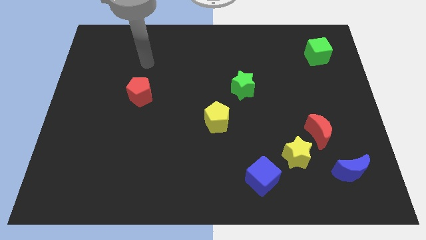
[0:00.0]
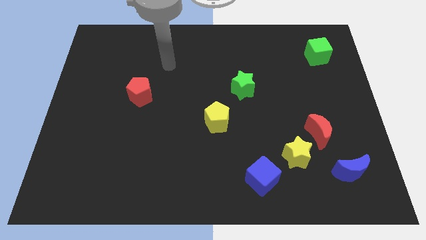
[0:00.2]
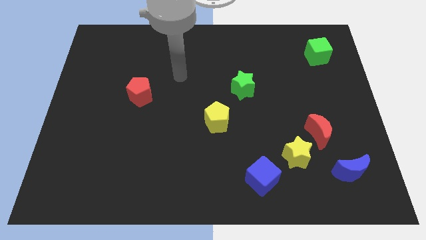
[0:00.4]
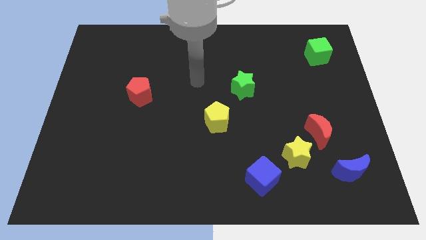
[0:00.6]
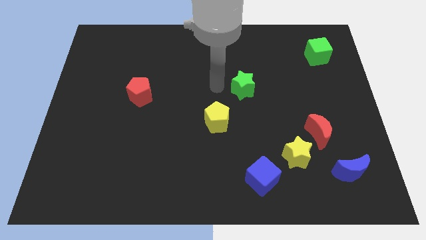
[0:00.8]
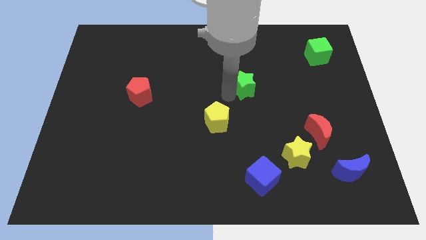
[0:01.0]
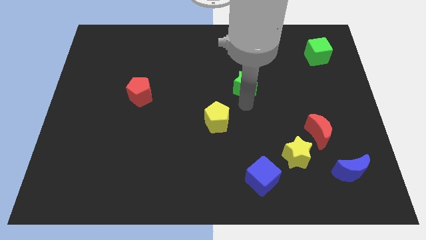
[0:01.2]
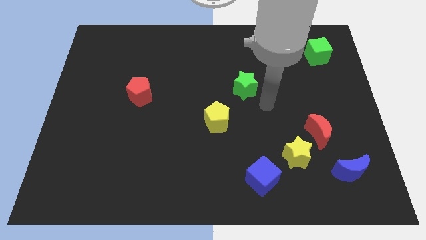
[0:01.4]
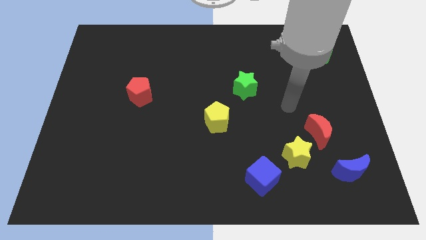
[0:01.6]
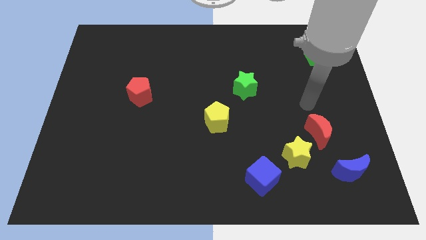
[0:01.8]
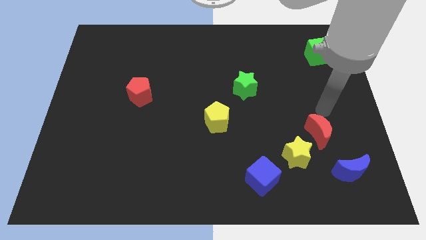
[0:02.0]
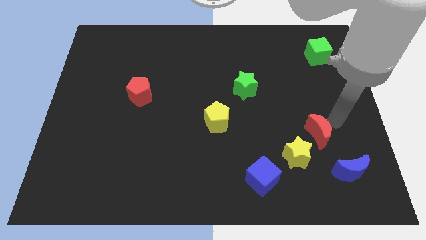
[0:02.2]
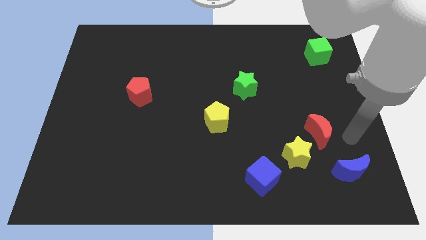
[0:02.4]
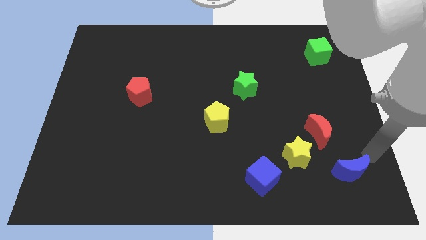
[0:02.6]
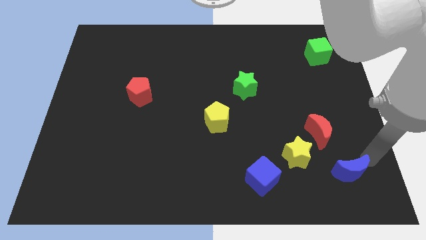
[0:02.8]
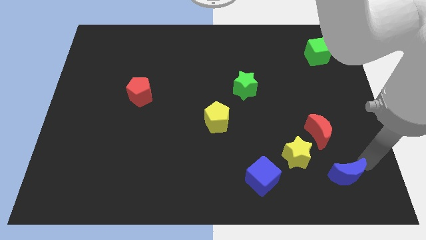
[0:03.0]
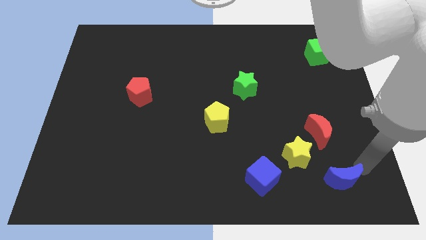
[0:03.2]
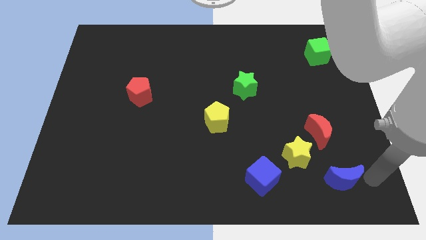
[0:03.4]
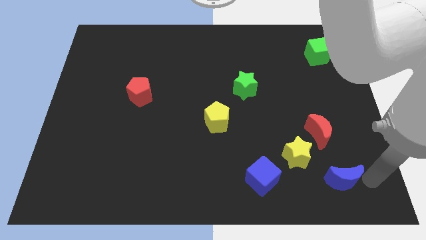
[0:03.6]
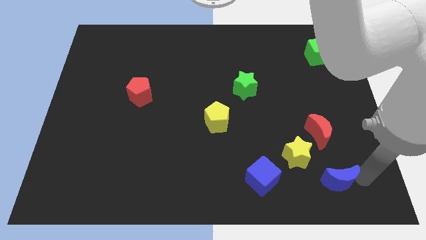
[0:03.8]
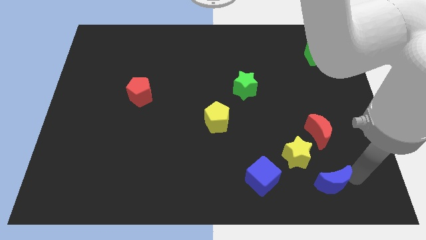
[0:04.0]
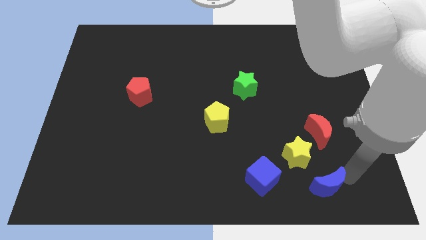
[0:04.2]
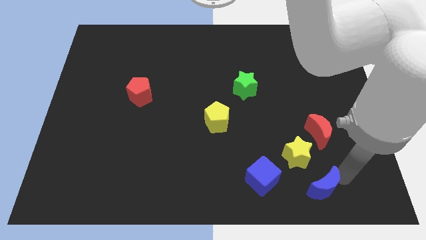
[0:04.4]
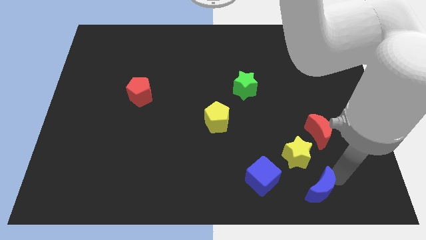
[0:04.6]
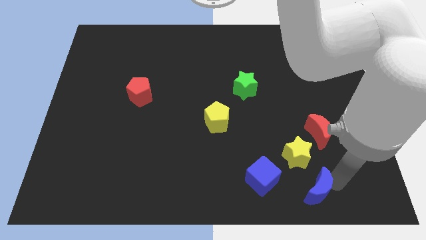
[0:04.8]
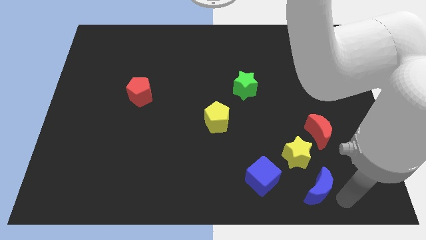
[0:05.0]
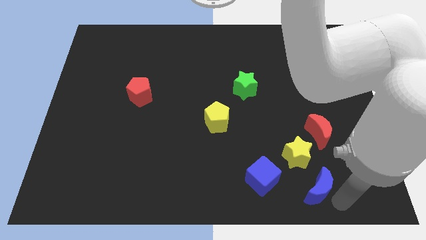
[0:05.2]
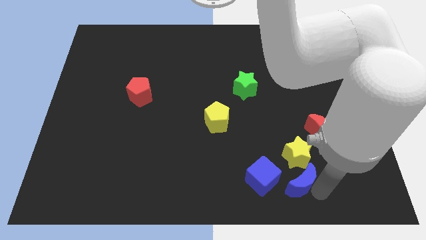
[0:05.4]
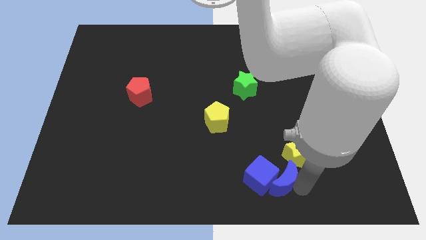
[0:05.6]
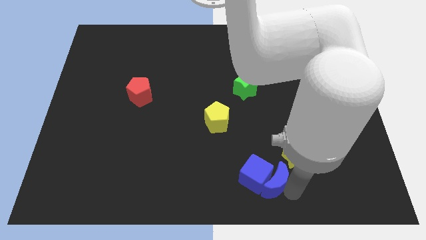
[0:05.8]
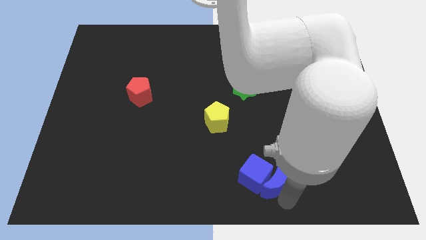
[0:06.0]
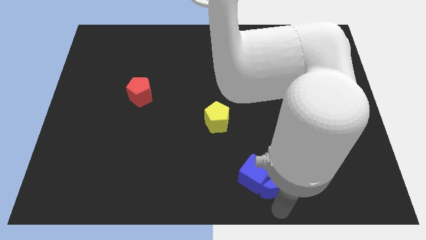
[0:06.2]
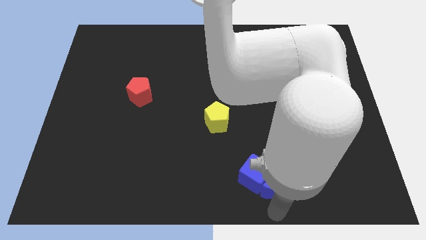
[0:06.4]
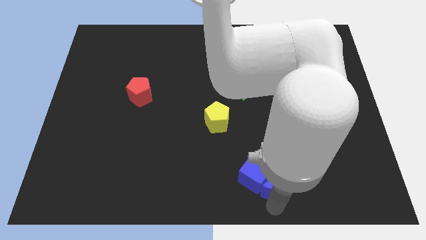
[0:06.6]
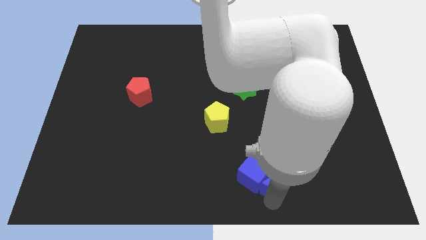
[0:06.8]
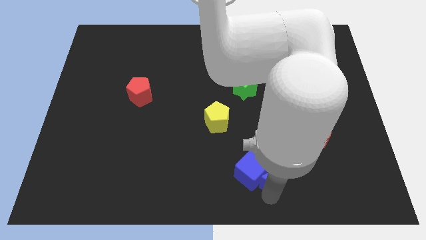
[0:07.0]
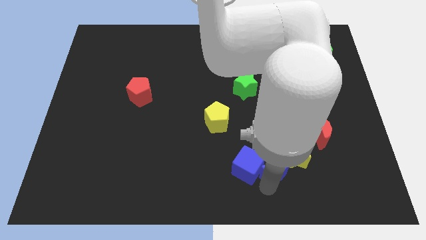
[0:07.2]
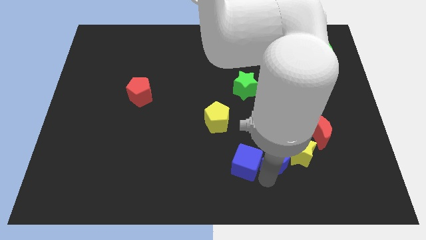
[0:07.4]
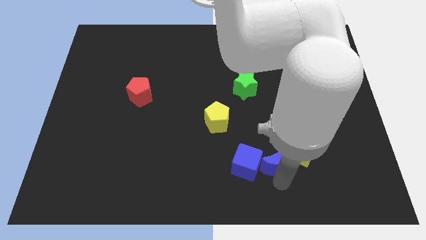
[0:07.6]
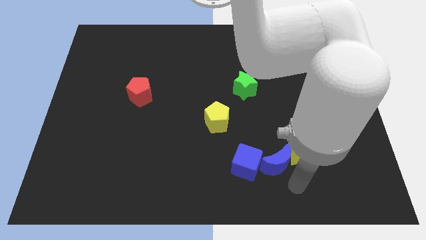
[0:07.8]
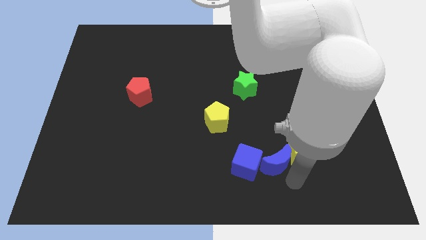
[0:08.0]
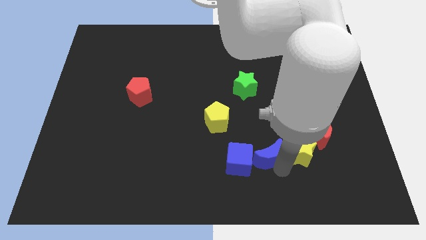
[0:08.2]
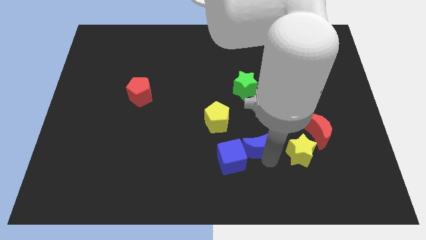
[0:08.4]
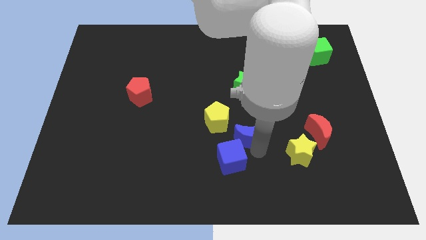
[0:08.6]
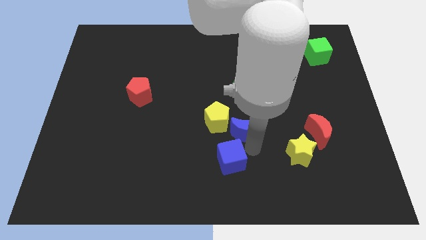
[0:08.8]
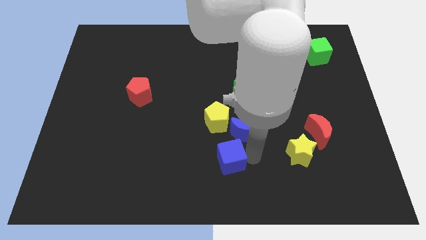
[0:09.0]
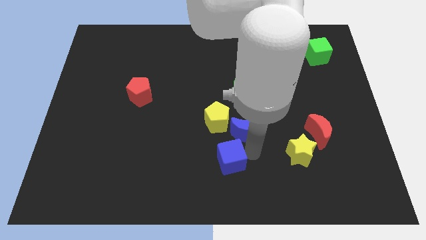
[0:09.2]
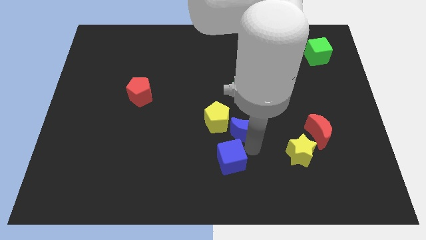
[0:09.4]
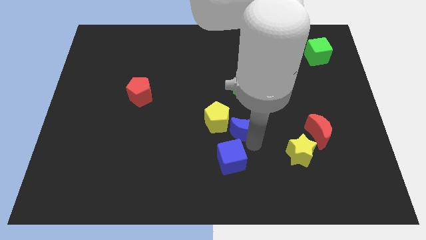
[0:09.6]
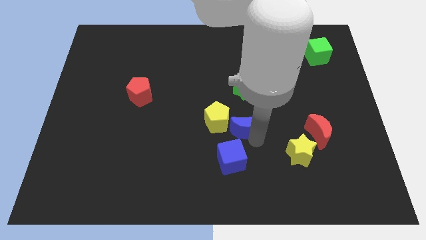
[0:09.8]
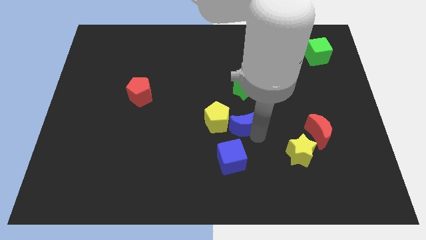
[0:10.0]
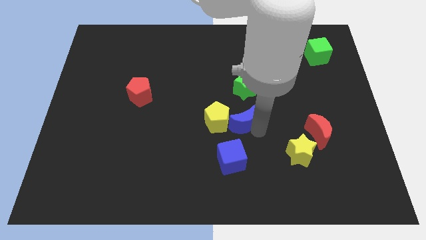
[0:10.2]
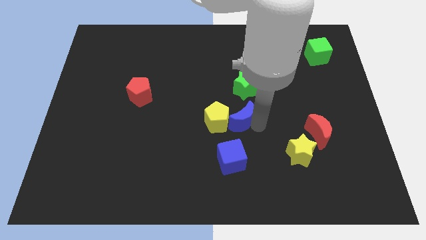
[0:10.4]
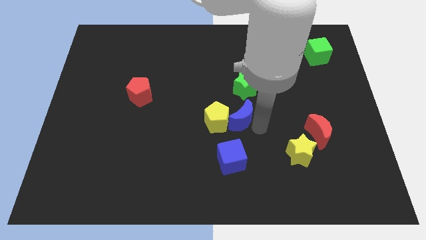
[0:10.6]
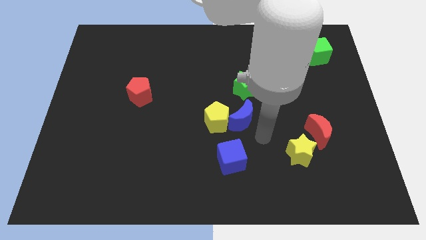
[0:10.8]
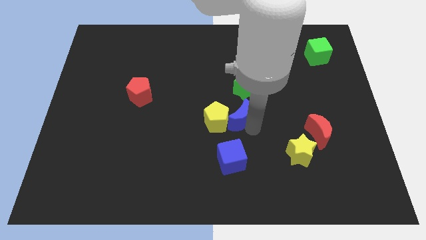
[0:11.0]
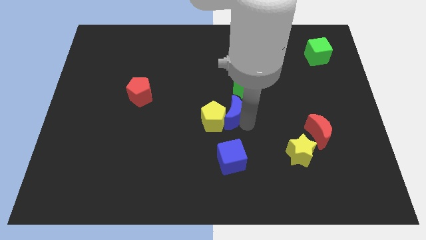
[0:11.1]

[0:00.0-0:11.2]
move the blue moon diagonally down and to the left of the green star

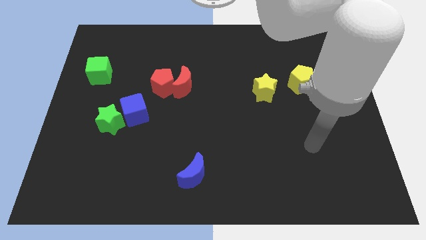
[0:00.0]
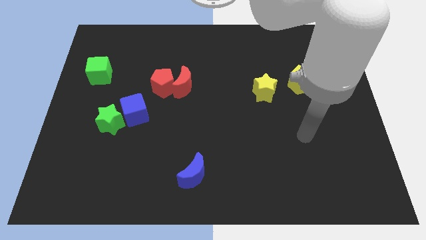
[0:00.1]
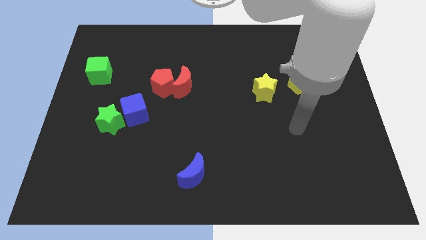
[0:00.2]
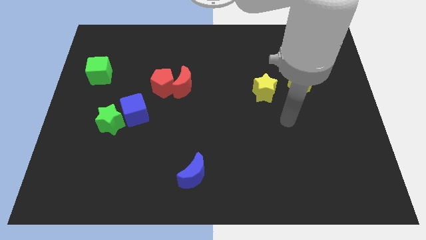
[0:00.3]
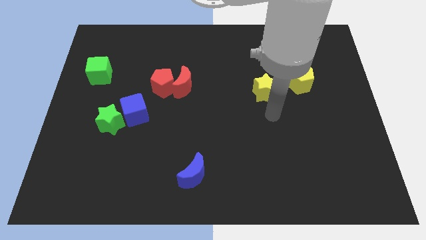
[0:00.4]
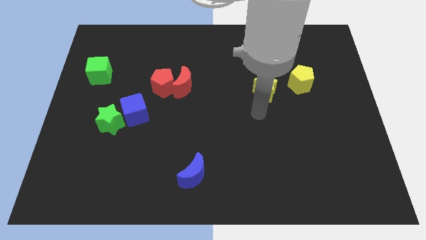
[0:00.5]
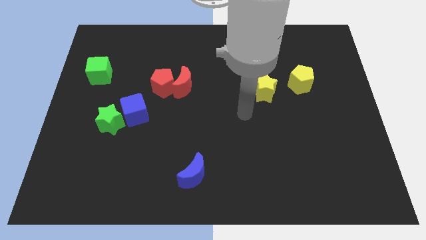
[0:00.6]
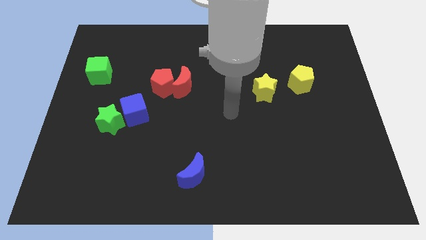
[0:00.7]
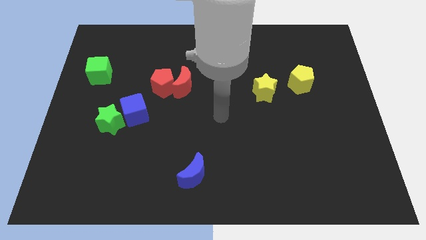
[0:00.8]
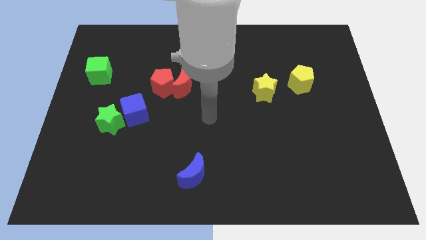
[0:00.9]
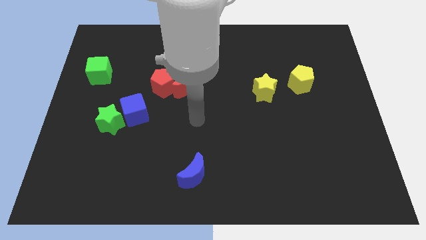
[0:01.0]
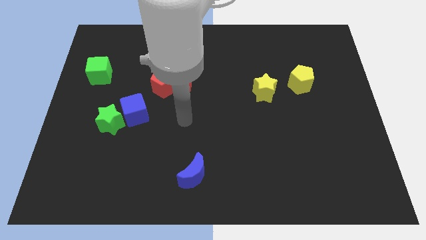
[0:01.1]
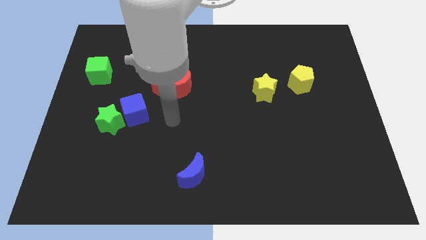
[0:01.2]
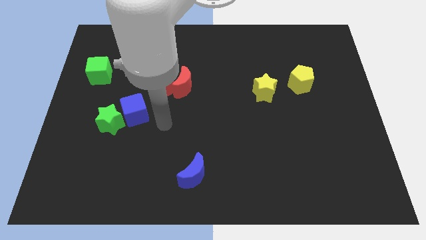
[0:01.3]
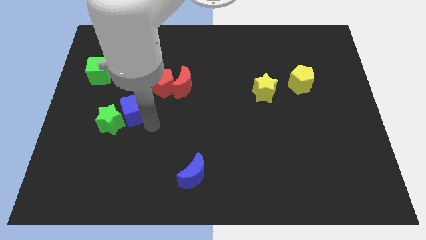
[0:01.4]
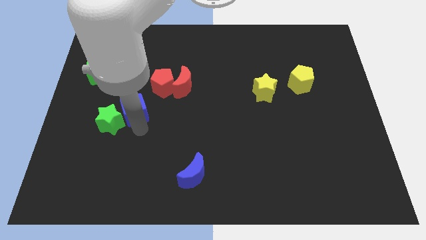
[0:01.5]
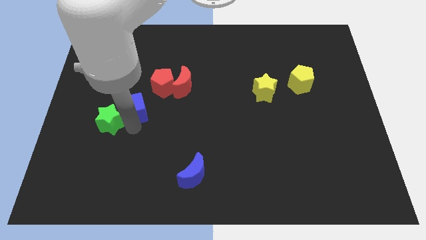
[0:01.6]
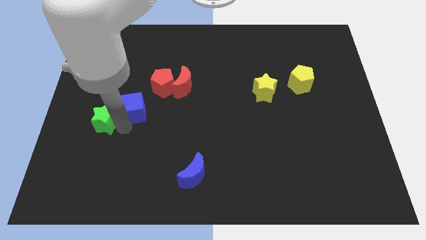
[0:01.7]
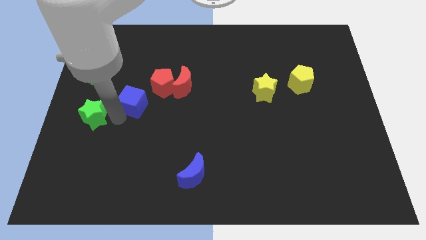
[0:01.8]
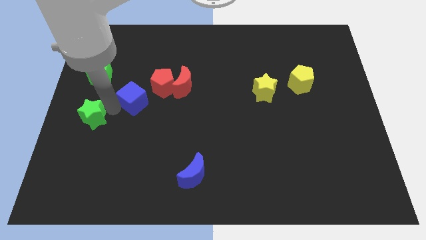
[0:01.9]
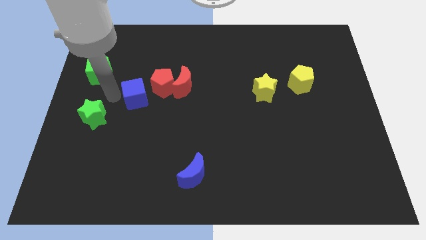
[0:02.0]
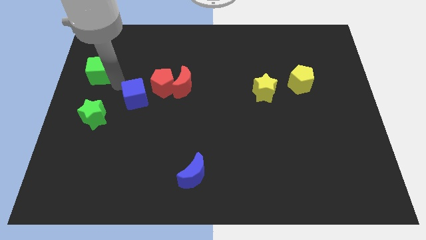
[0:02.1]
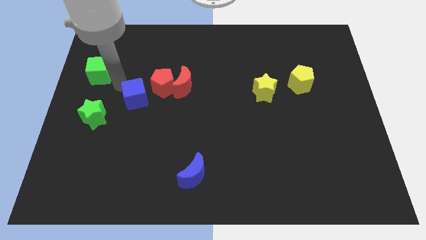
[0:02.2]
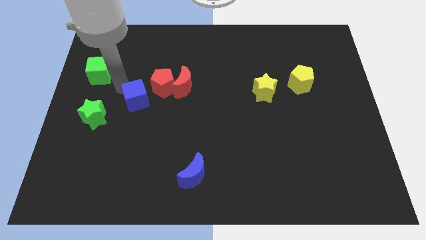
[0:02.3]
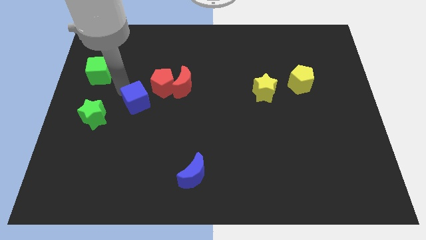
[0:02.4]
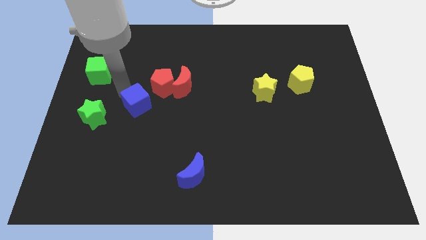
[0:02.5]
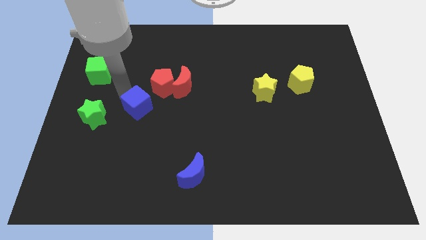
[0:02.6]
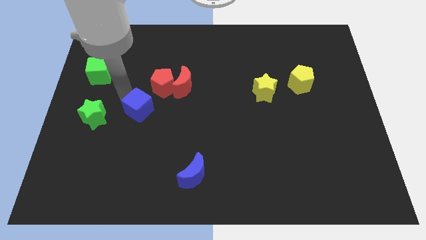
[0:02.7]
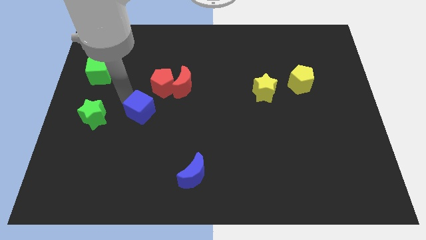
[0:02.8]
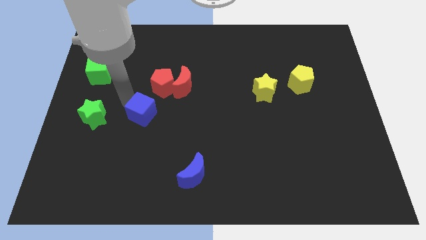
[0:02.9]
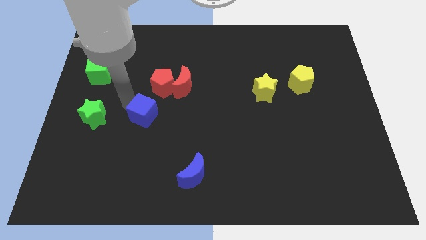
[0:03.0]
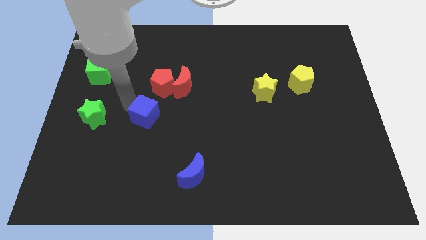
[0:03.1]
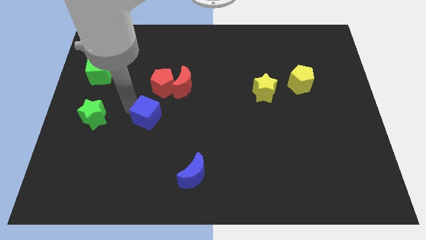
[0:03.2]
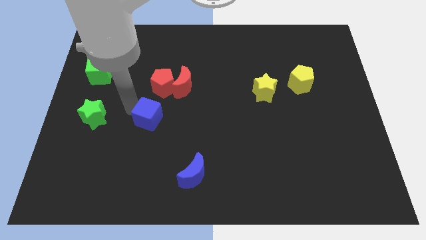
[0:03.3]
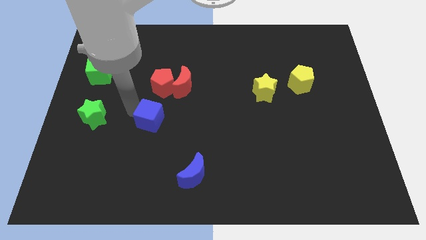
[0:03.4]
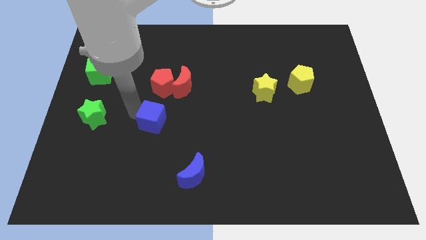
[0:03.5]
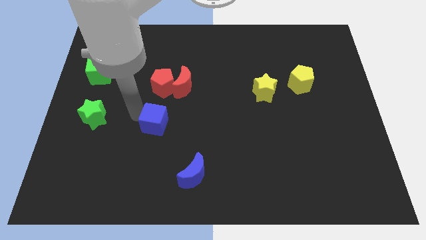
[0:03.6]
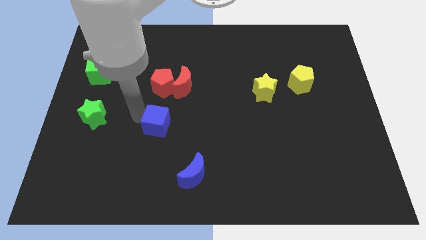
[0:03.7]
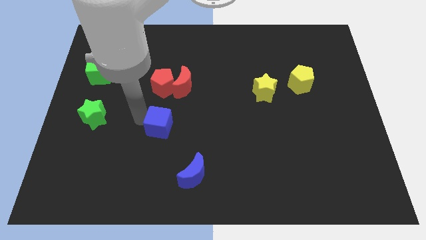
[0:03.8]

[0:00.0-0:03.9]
put the blue cube to the bottom of the red moon
